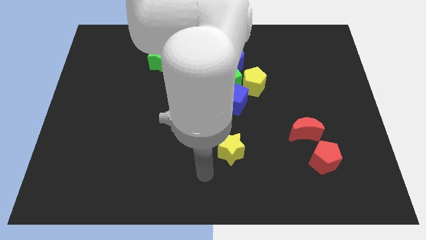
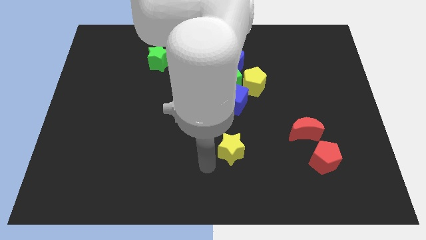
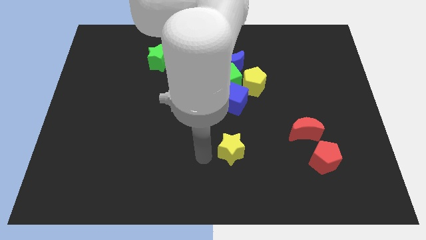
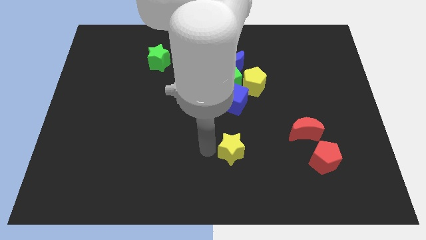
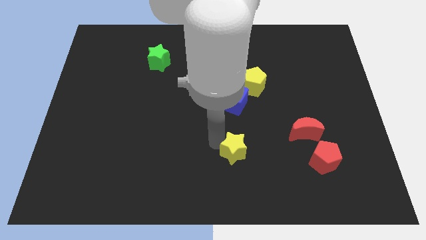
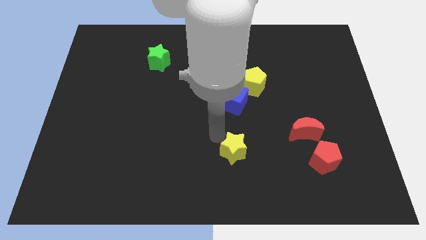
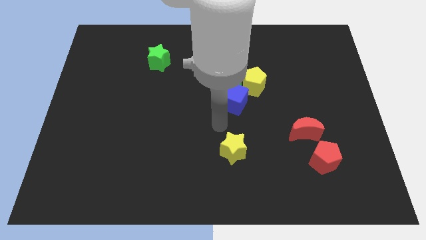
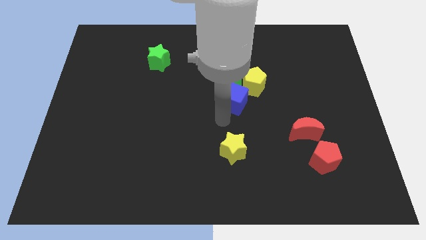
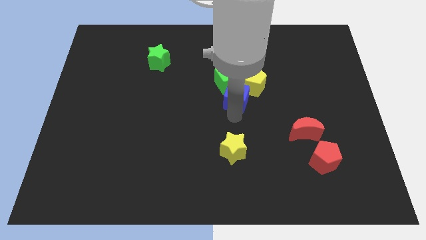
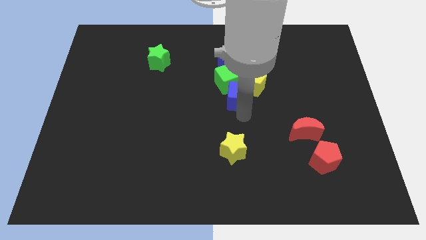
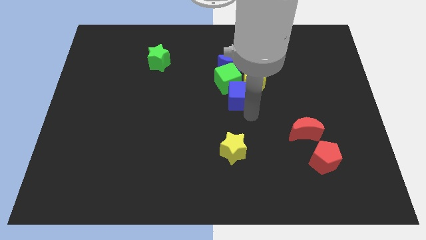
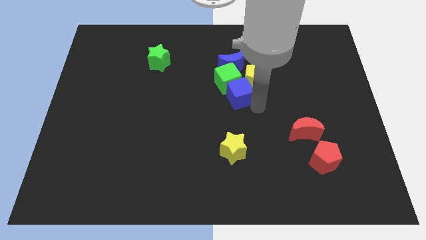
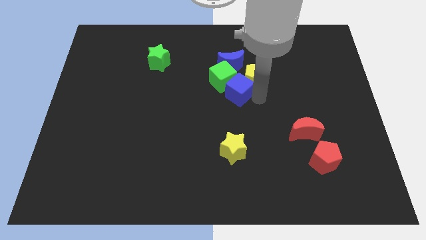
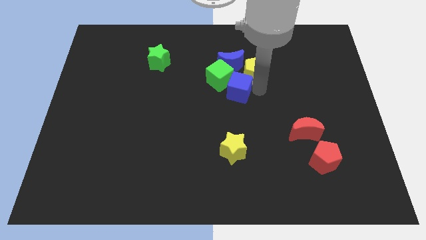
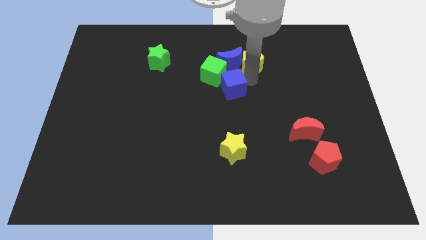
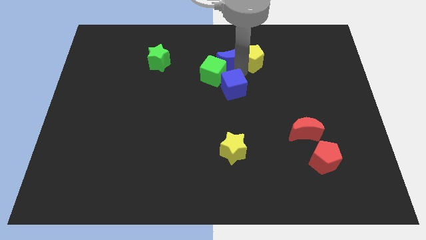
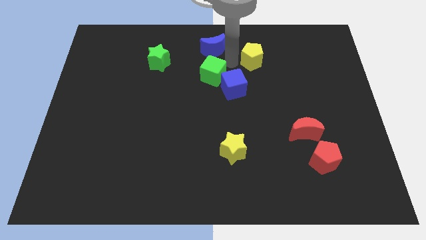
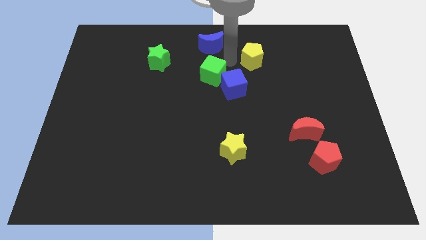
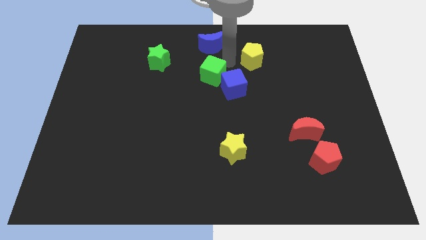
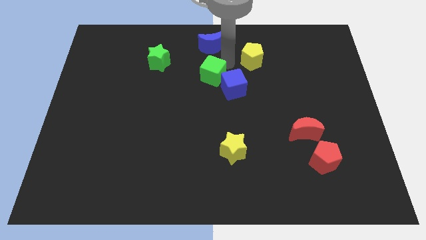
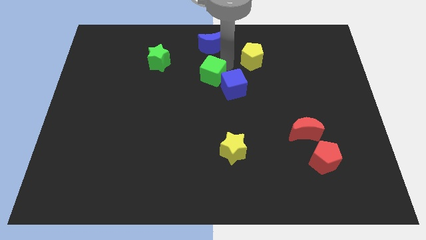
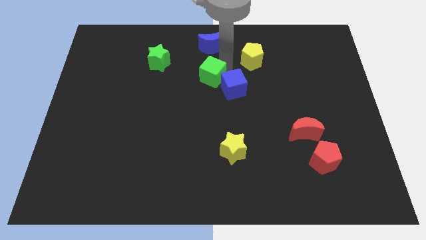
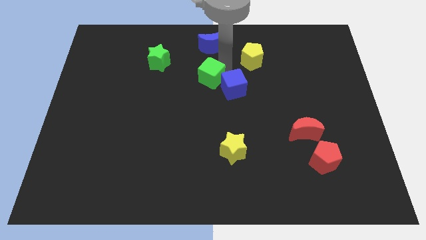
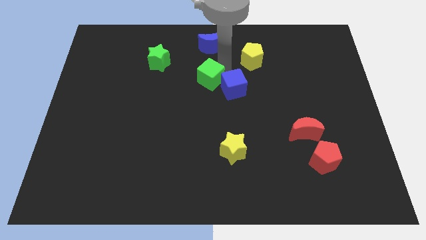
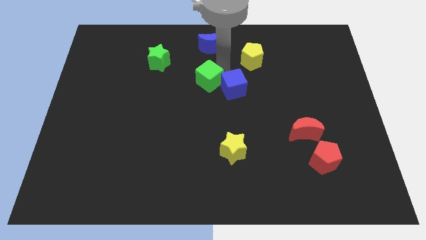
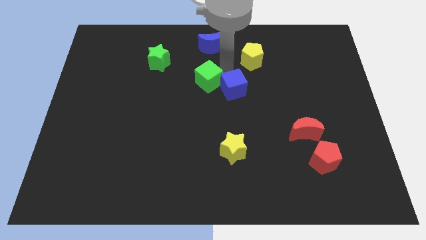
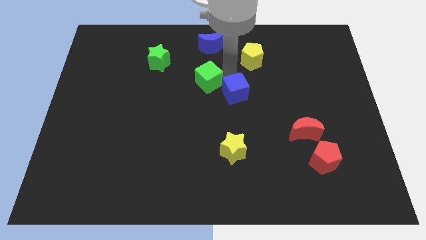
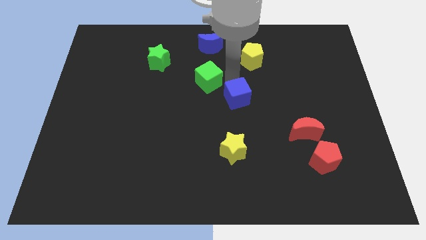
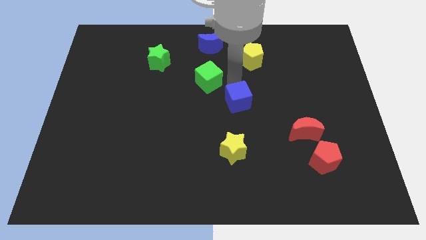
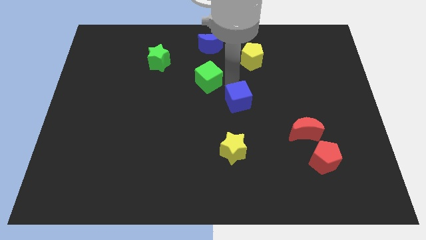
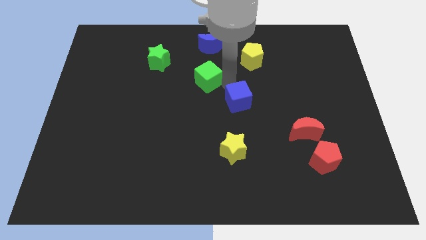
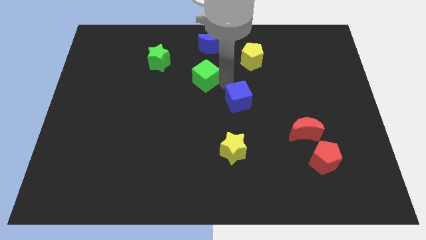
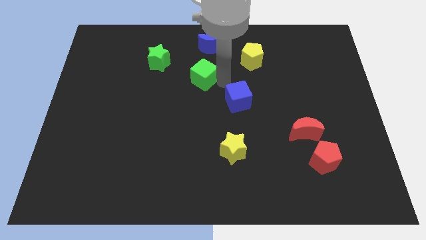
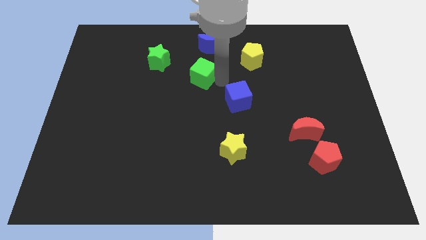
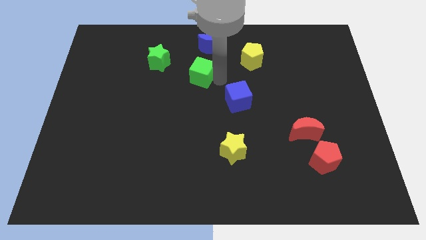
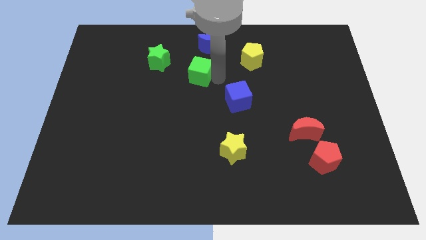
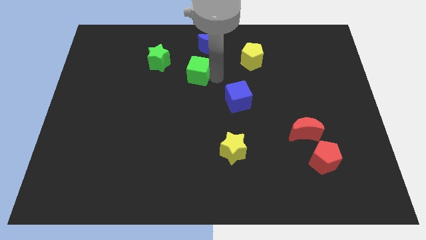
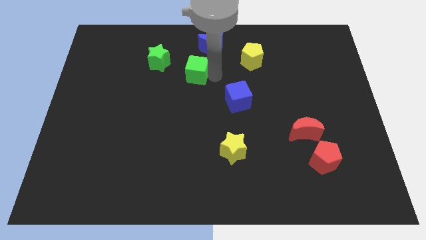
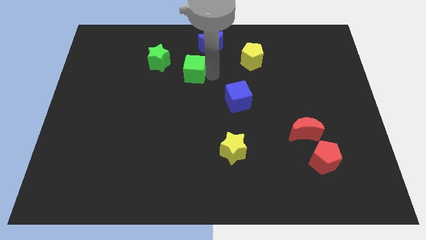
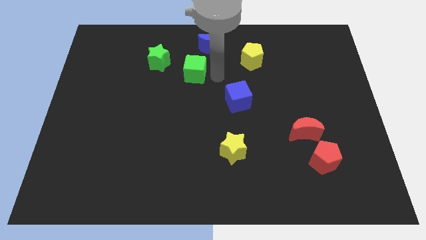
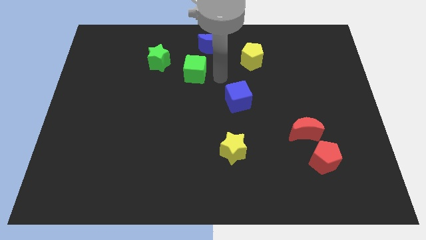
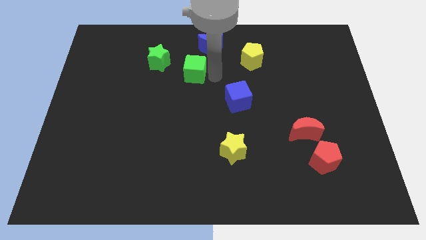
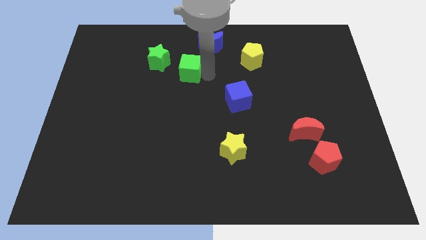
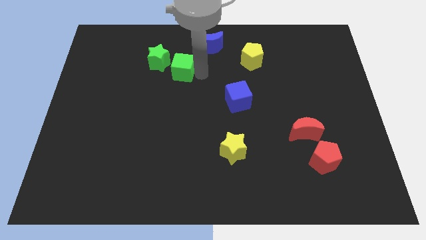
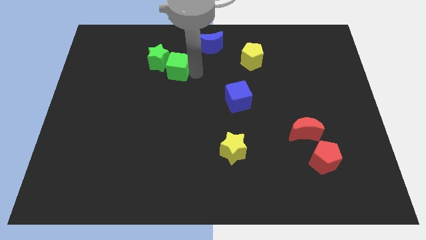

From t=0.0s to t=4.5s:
slide the green cube close to the green star

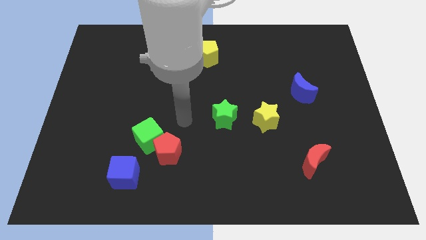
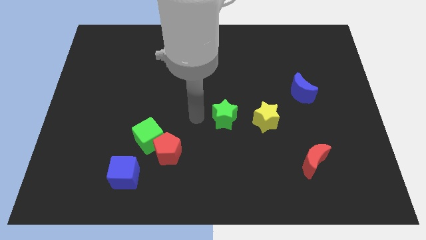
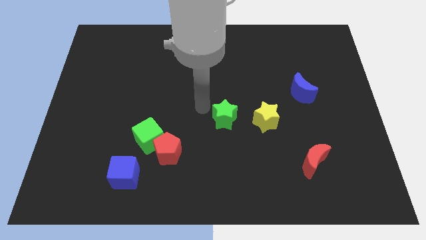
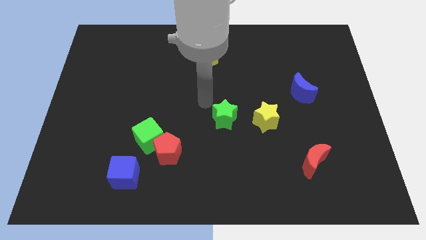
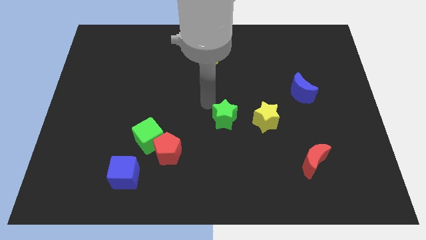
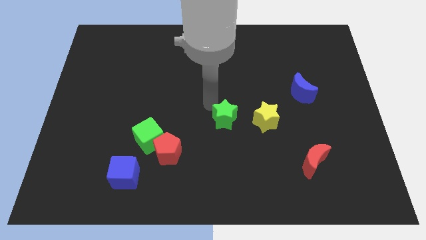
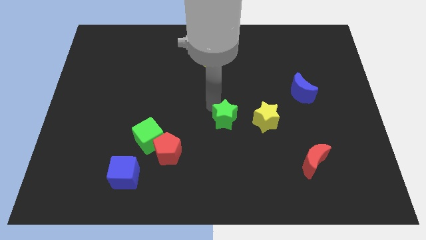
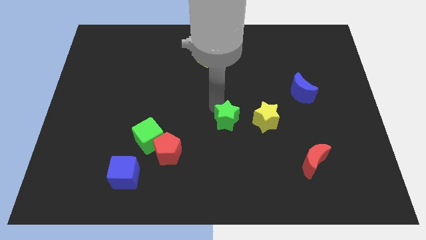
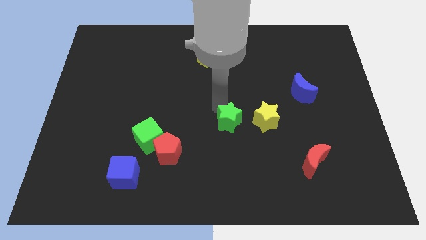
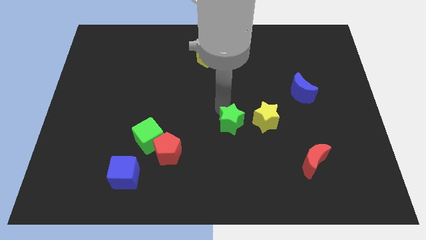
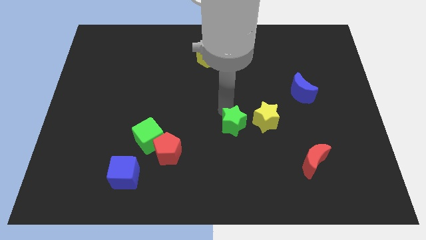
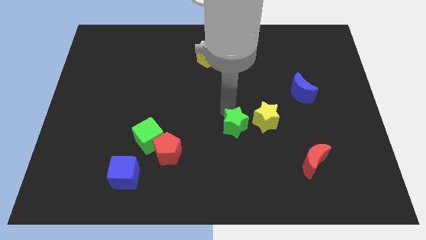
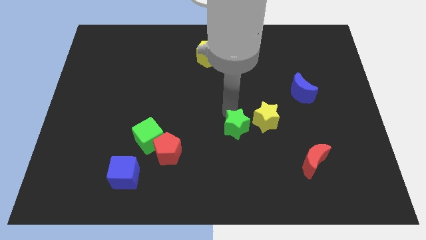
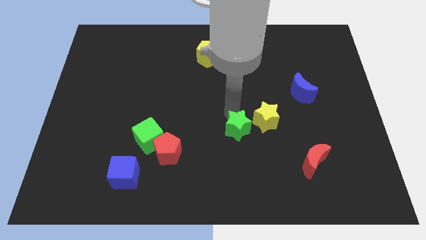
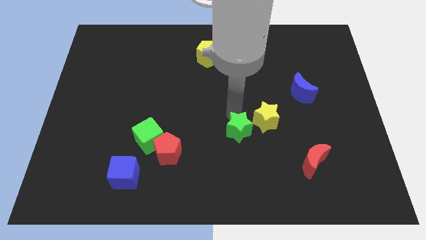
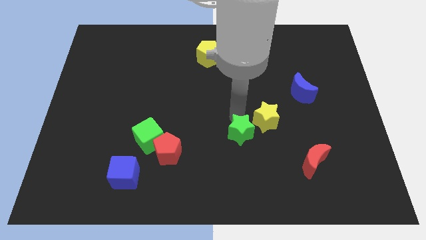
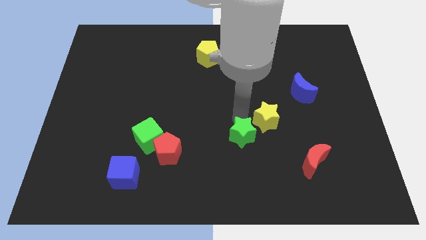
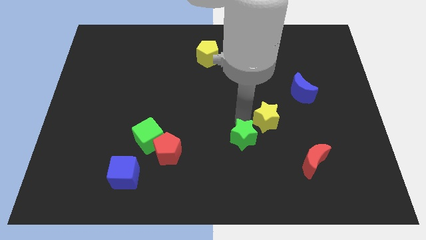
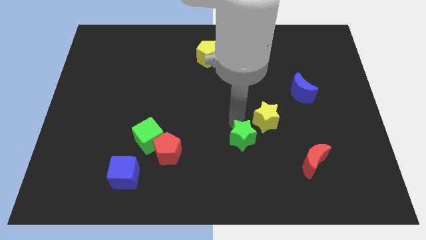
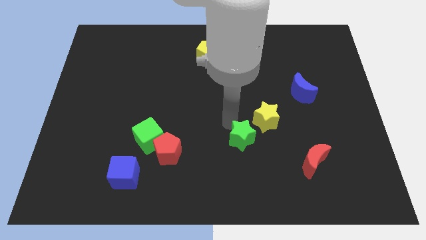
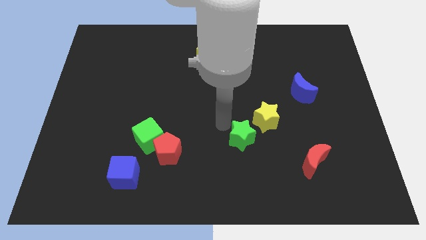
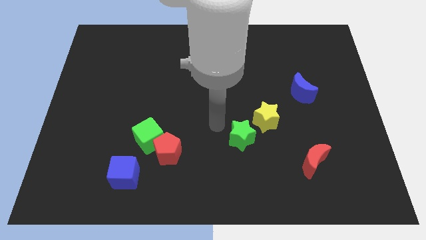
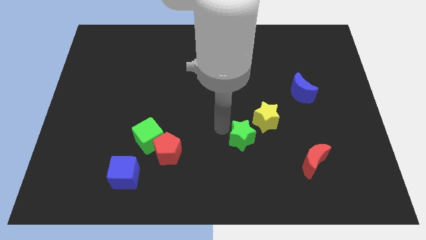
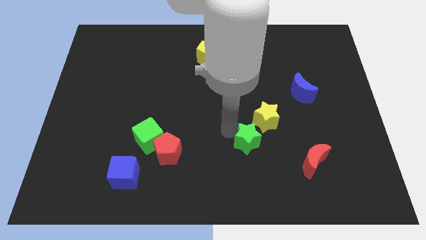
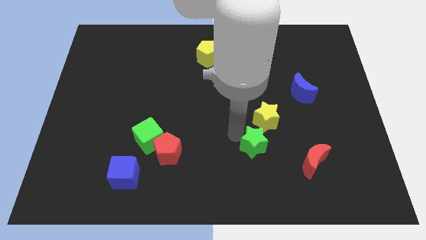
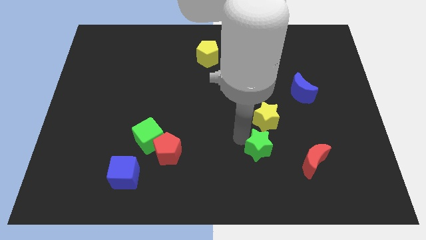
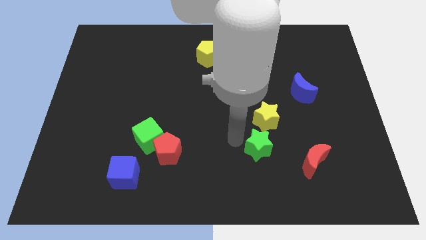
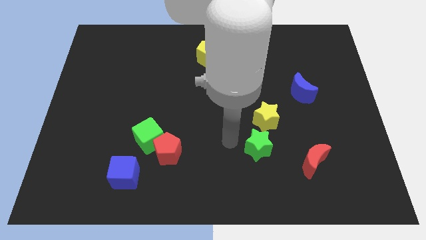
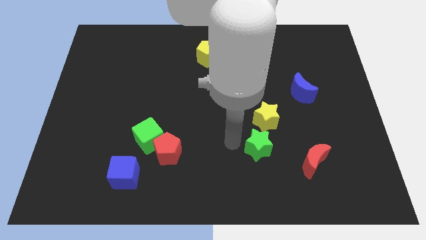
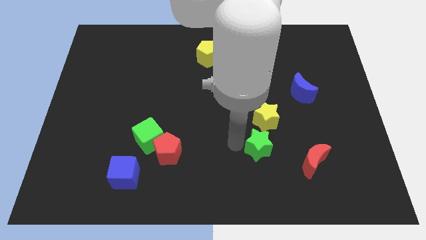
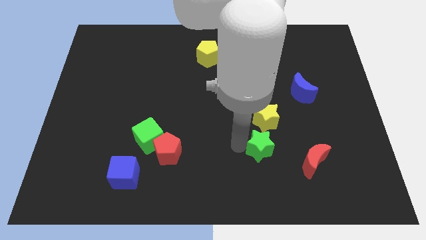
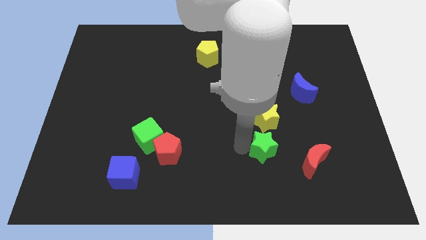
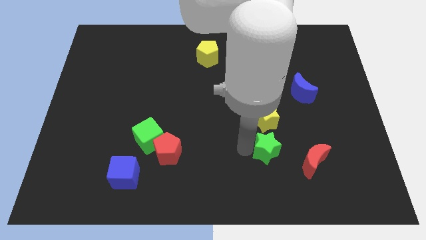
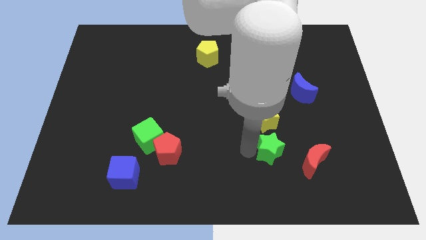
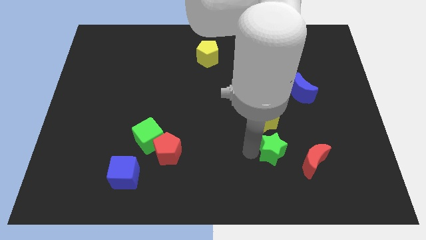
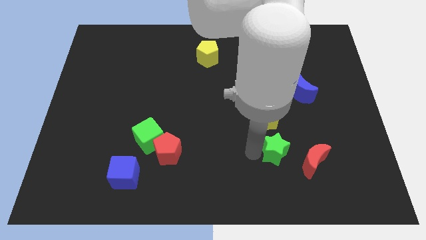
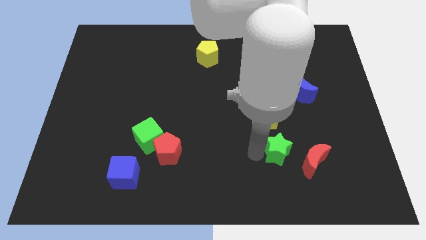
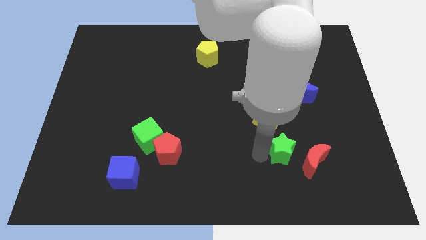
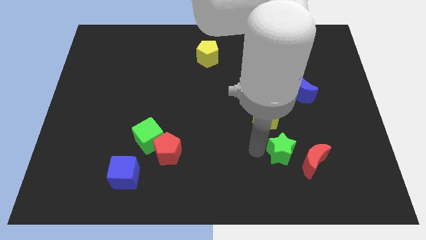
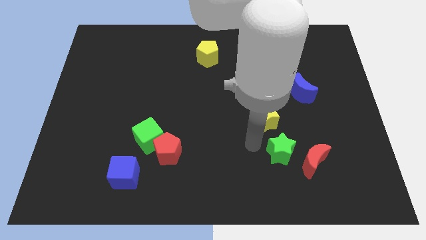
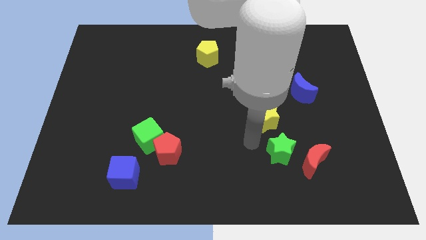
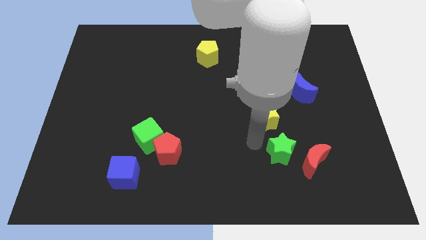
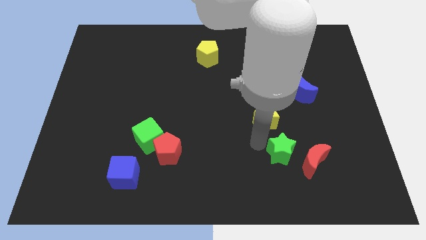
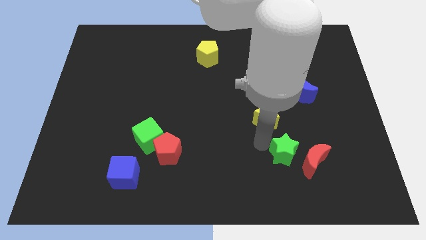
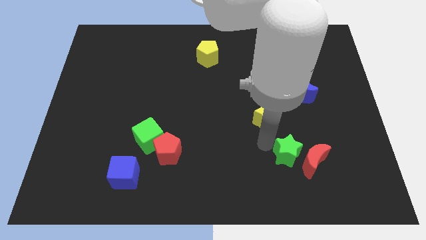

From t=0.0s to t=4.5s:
slide the green star close to the red moon
